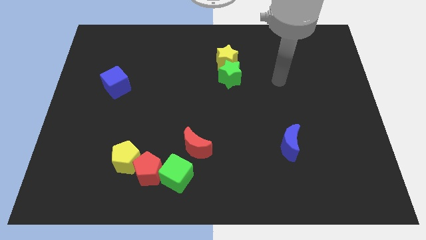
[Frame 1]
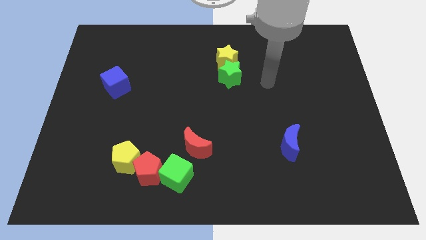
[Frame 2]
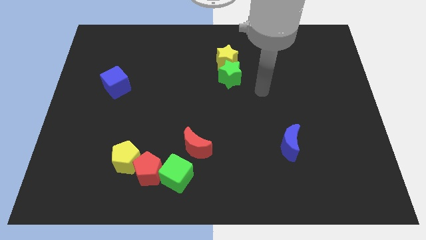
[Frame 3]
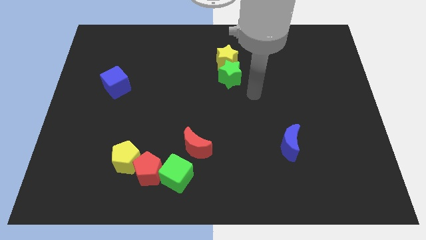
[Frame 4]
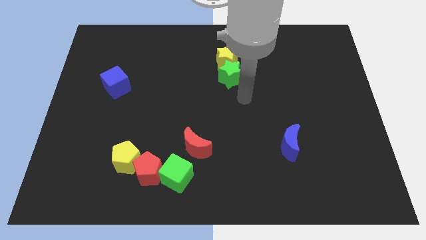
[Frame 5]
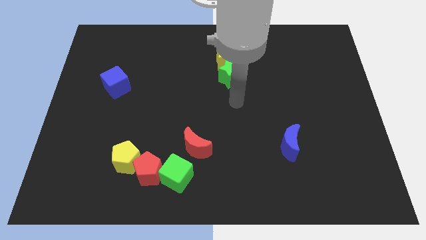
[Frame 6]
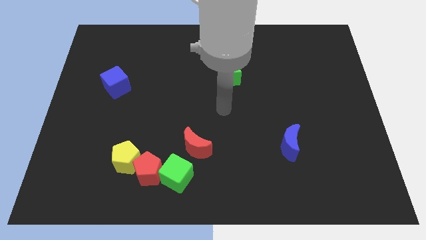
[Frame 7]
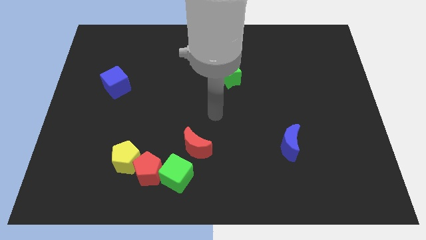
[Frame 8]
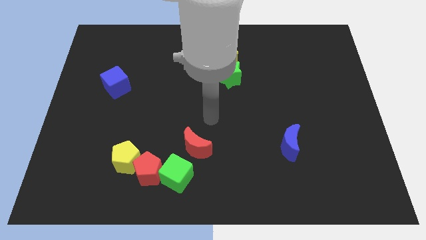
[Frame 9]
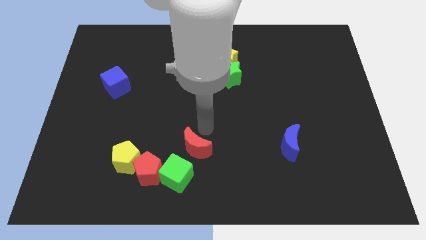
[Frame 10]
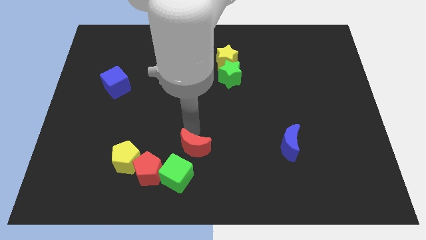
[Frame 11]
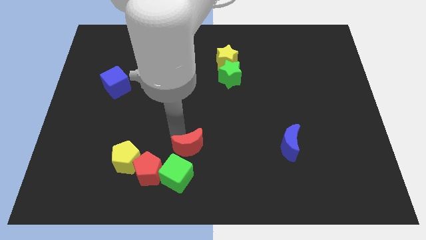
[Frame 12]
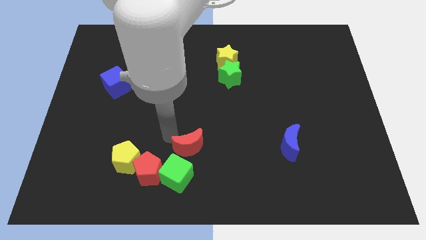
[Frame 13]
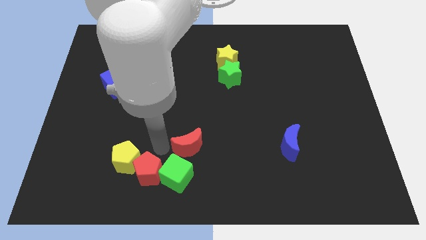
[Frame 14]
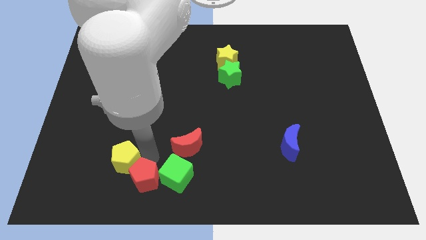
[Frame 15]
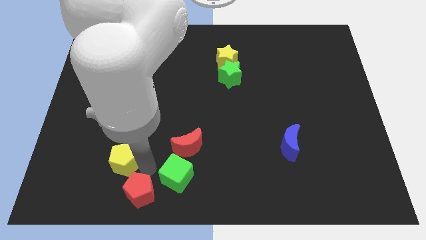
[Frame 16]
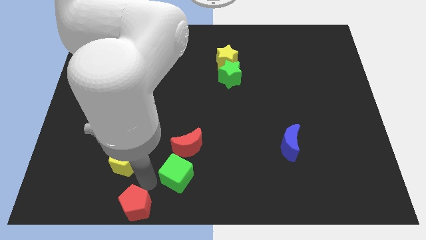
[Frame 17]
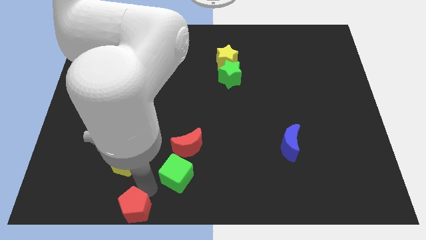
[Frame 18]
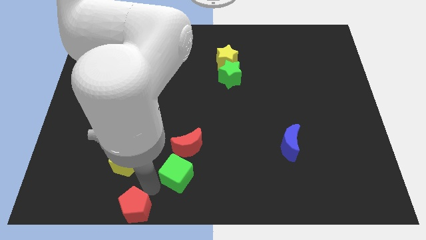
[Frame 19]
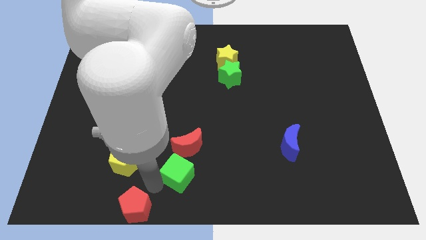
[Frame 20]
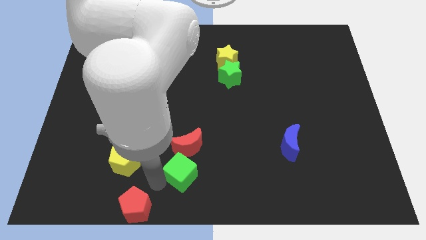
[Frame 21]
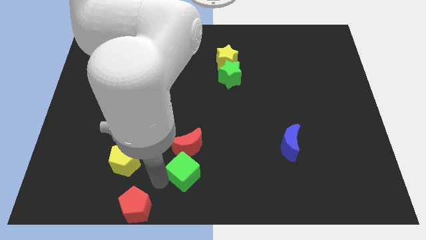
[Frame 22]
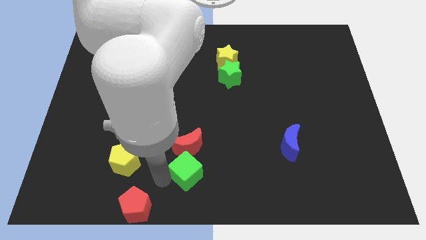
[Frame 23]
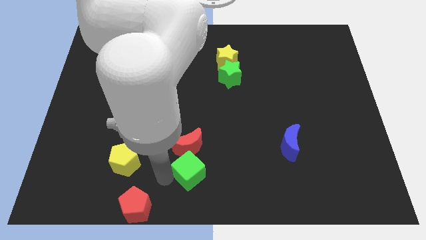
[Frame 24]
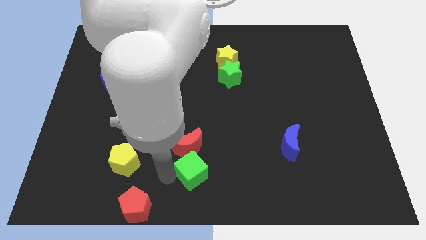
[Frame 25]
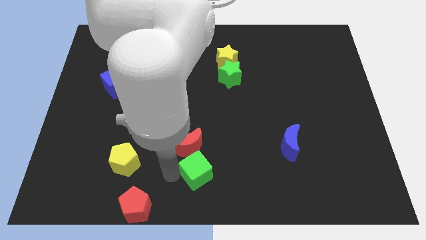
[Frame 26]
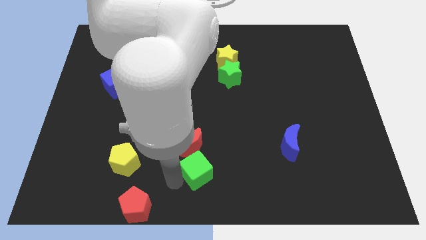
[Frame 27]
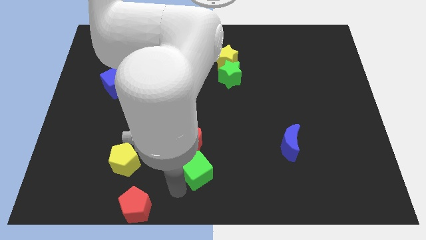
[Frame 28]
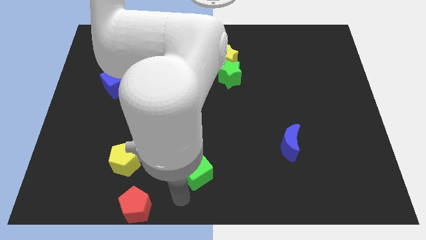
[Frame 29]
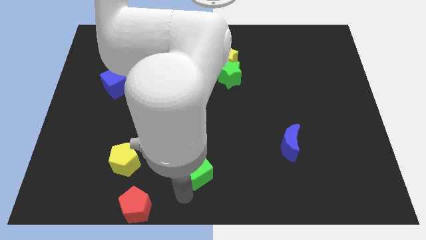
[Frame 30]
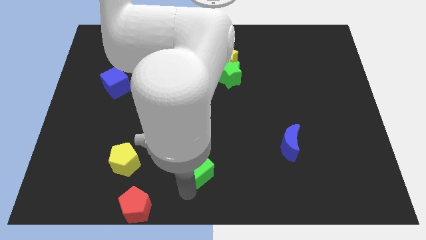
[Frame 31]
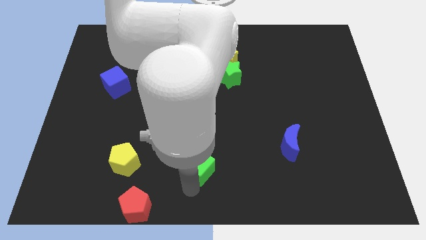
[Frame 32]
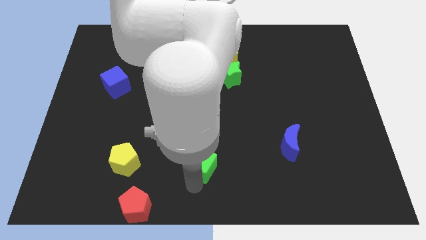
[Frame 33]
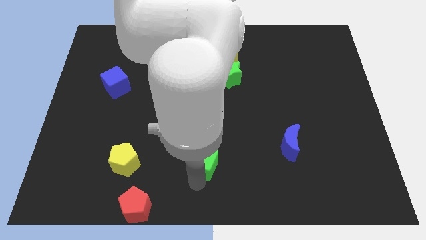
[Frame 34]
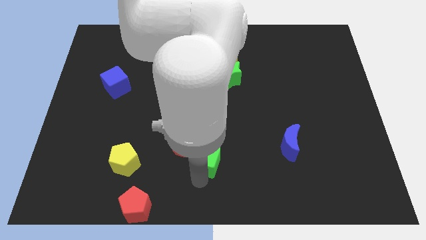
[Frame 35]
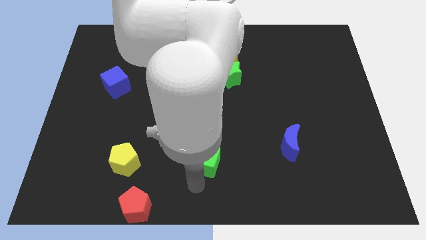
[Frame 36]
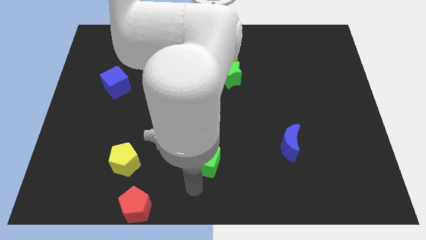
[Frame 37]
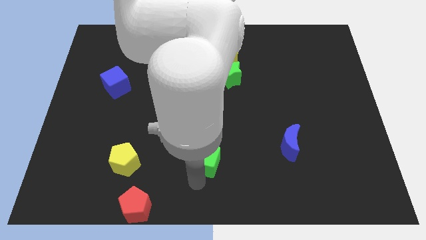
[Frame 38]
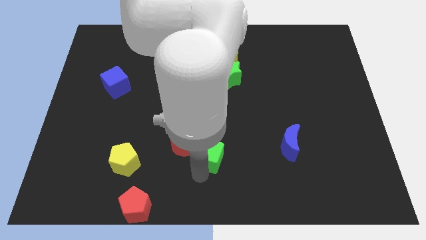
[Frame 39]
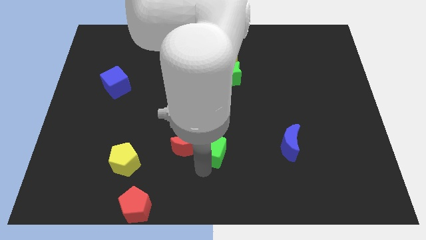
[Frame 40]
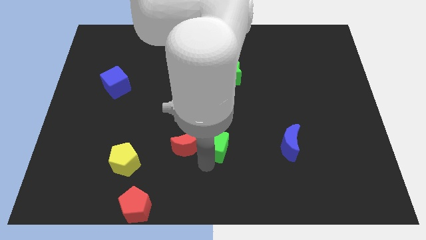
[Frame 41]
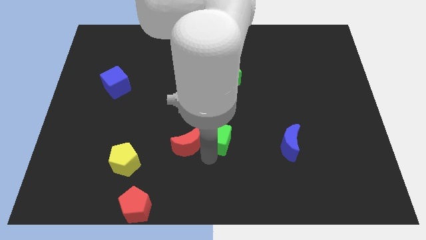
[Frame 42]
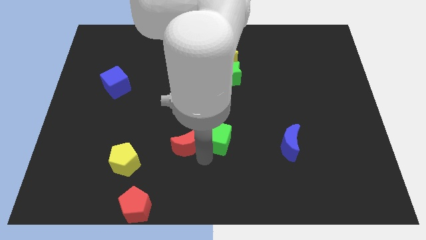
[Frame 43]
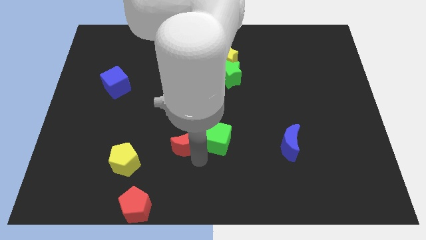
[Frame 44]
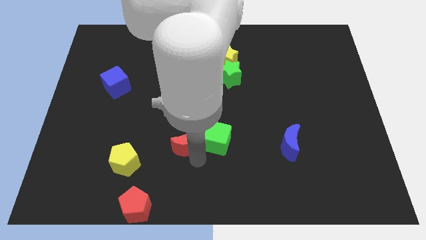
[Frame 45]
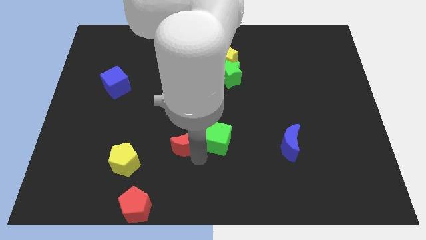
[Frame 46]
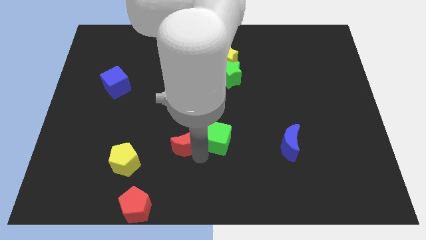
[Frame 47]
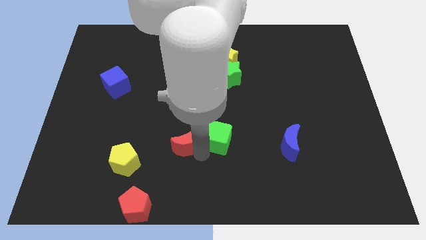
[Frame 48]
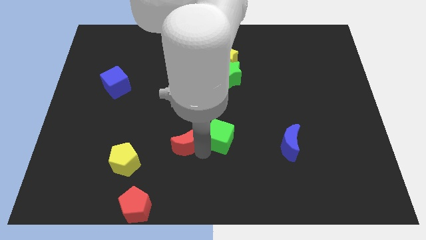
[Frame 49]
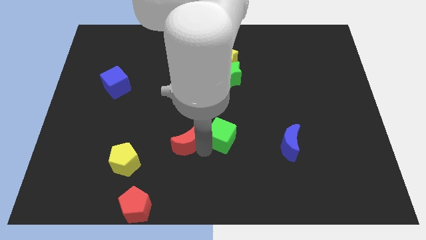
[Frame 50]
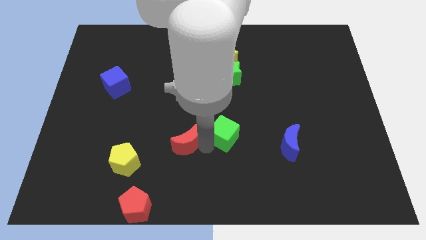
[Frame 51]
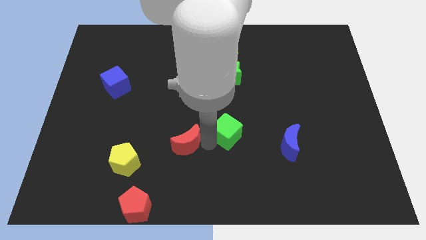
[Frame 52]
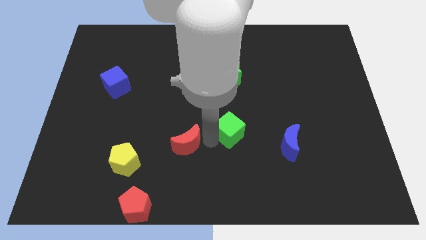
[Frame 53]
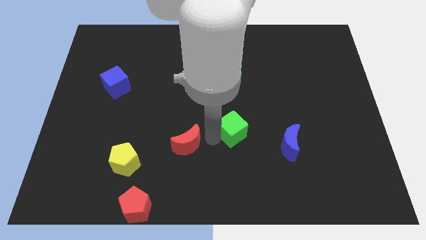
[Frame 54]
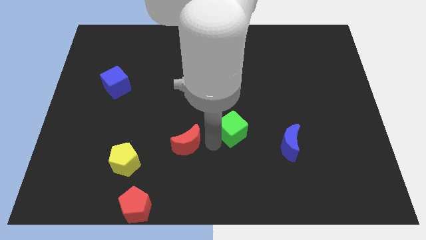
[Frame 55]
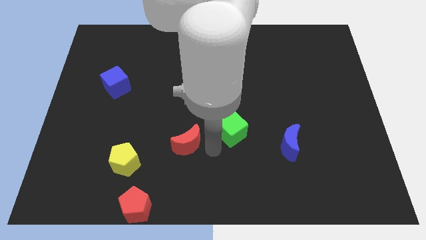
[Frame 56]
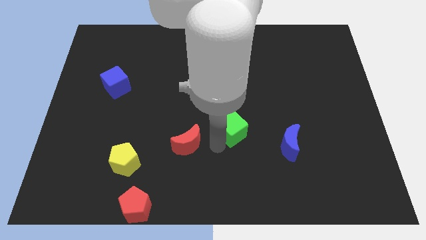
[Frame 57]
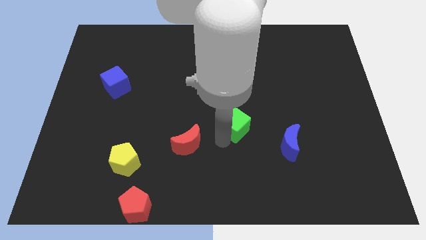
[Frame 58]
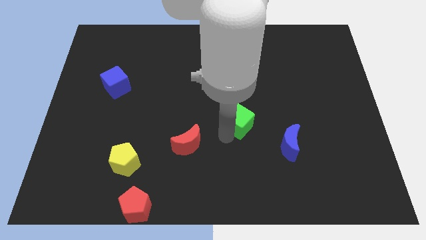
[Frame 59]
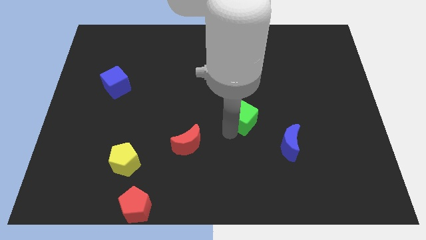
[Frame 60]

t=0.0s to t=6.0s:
push the green cube upwards and to the right

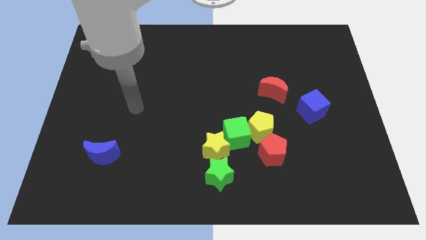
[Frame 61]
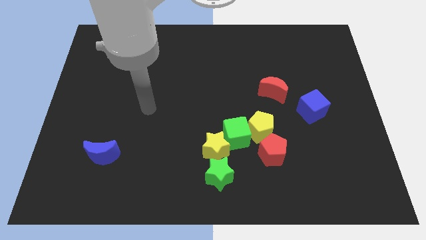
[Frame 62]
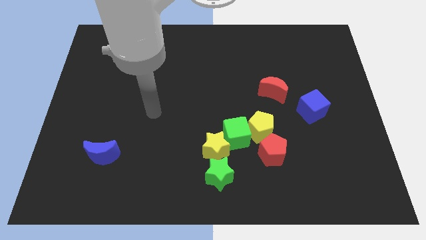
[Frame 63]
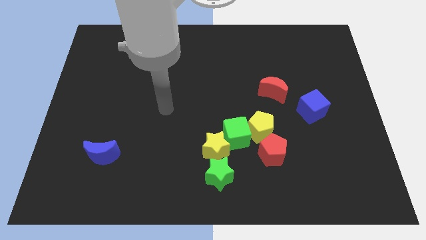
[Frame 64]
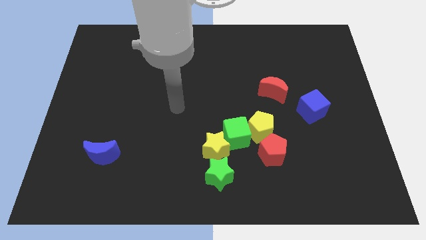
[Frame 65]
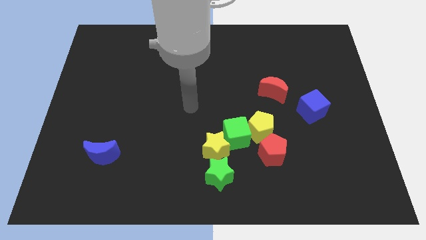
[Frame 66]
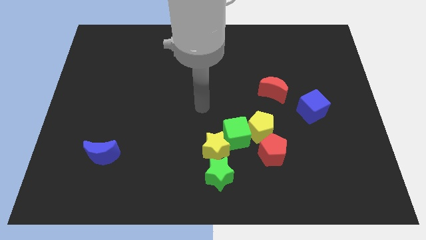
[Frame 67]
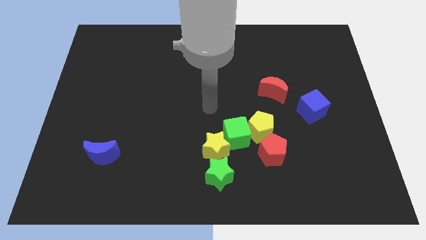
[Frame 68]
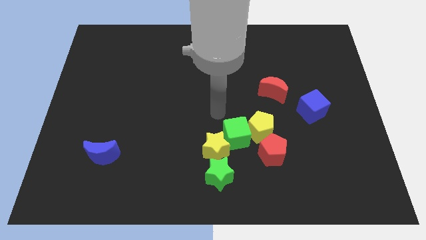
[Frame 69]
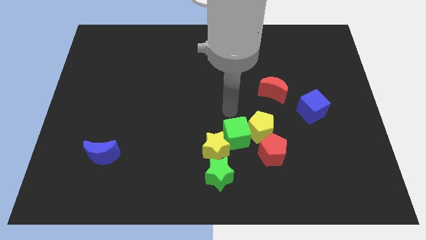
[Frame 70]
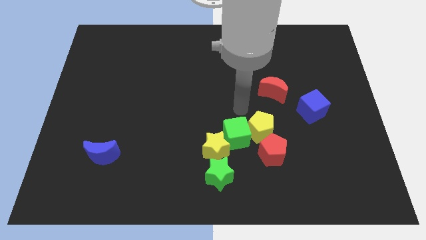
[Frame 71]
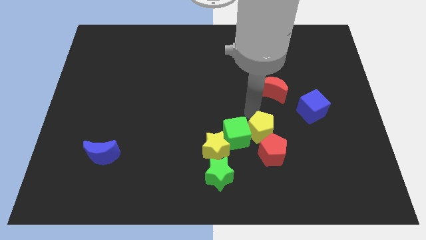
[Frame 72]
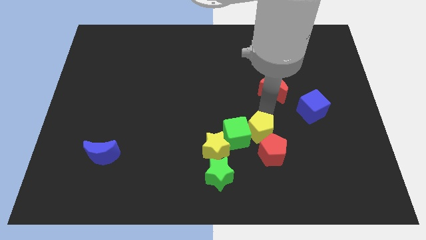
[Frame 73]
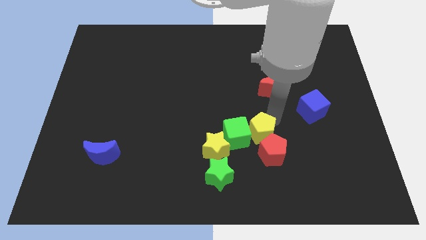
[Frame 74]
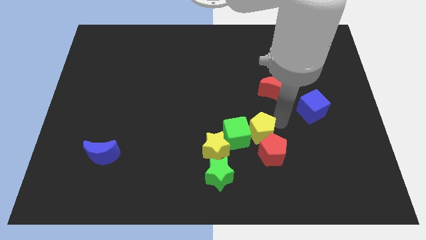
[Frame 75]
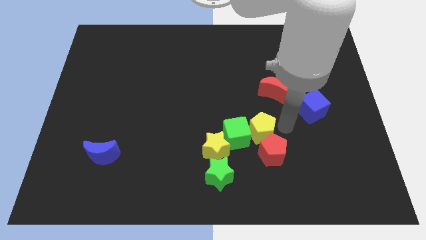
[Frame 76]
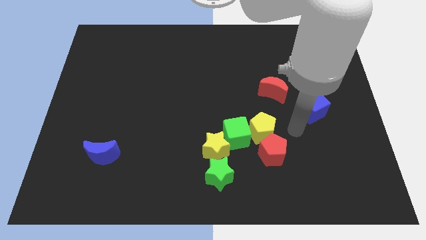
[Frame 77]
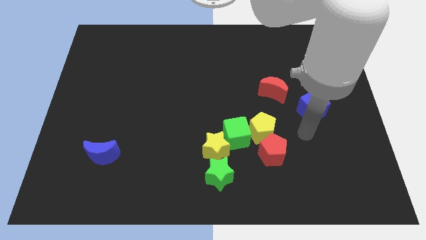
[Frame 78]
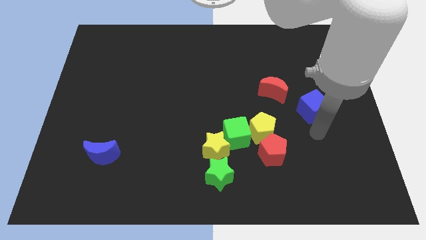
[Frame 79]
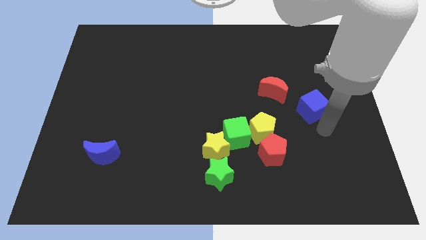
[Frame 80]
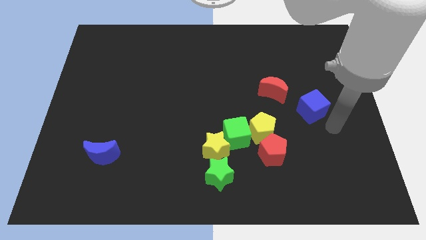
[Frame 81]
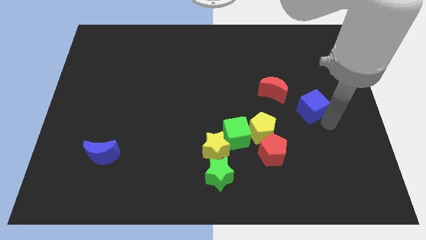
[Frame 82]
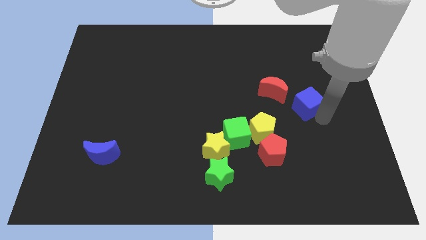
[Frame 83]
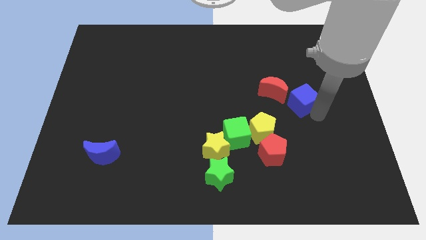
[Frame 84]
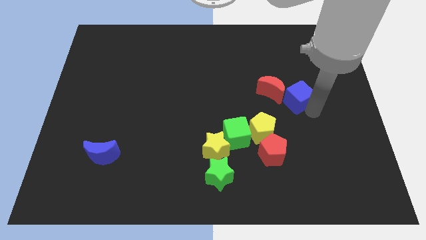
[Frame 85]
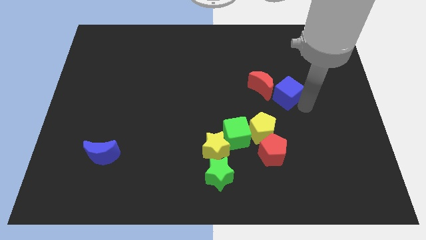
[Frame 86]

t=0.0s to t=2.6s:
slightly slide the blue cube up and left diagonally

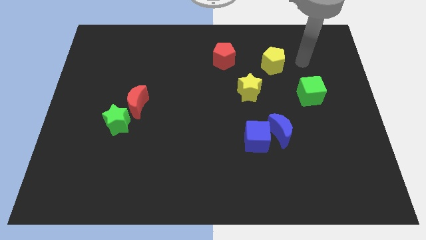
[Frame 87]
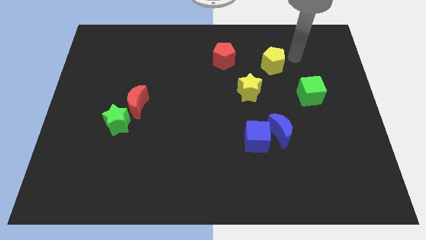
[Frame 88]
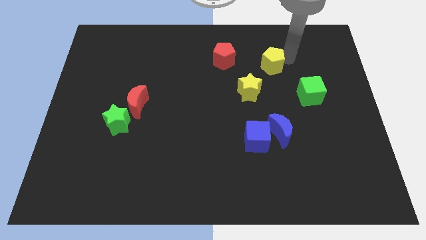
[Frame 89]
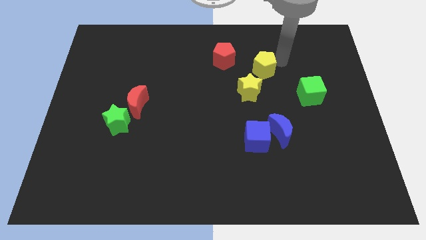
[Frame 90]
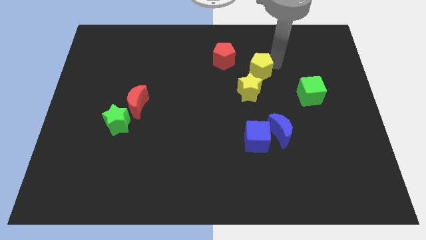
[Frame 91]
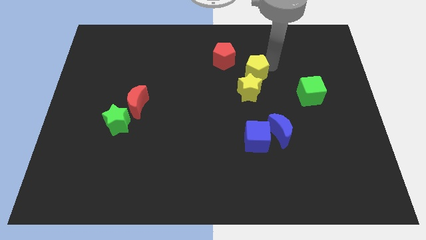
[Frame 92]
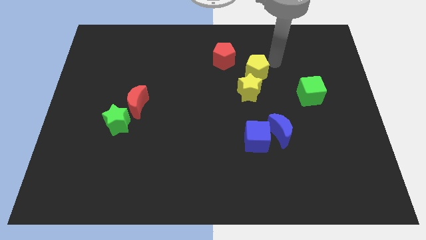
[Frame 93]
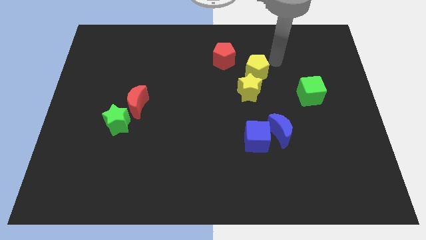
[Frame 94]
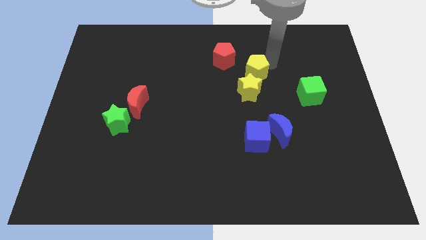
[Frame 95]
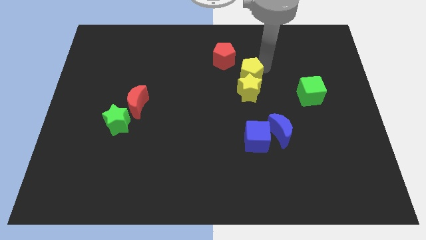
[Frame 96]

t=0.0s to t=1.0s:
slide the yellow pentagon down and then left a little
